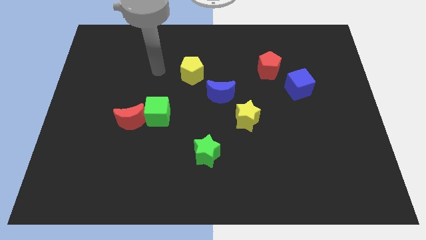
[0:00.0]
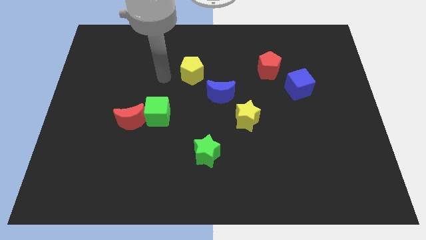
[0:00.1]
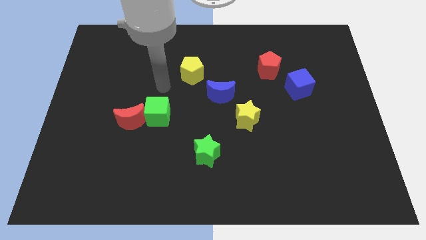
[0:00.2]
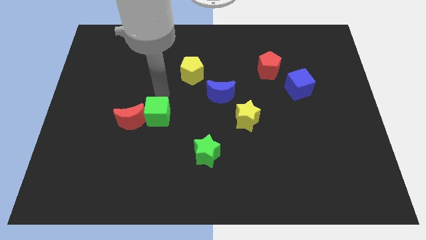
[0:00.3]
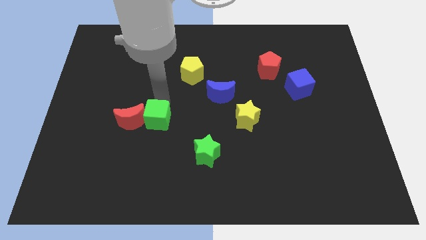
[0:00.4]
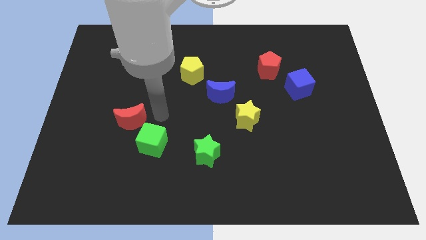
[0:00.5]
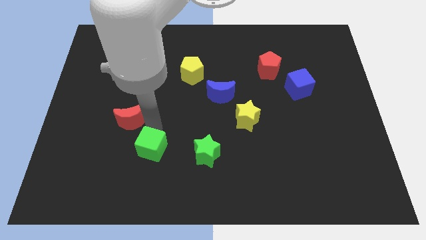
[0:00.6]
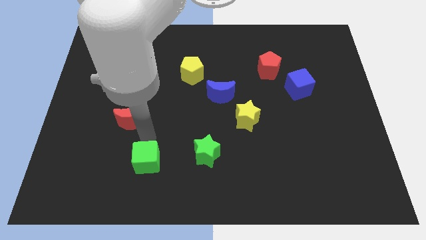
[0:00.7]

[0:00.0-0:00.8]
move the red moon away from the green cube

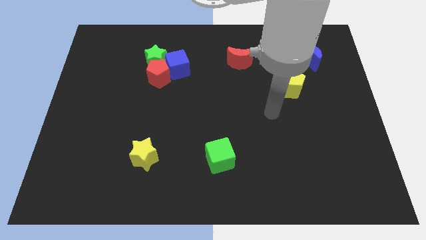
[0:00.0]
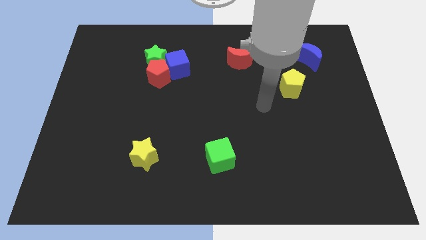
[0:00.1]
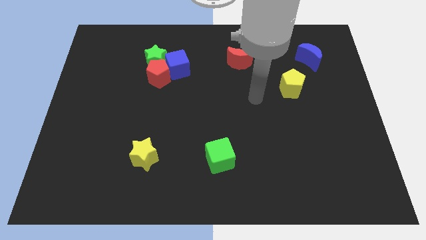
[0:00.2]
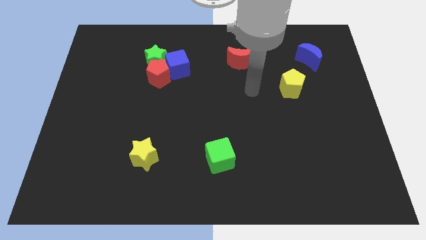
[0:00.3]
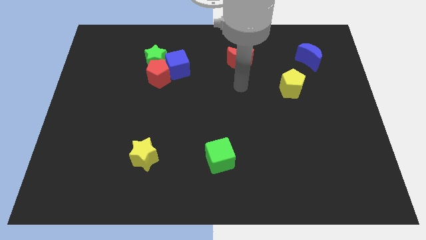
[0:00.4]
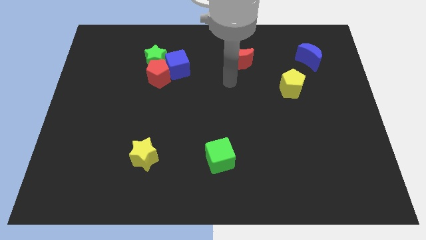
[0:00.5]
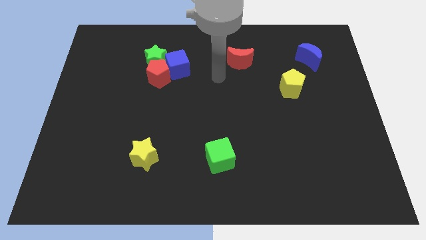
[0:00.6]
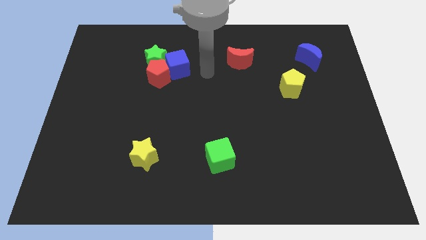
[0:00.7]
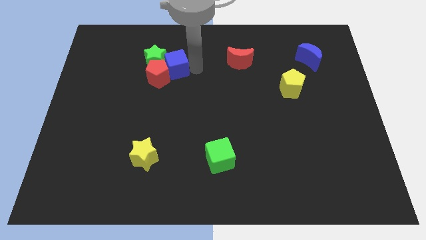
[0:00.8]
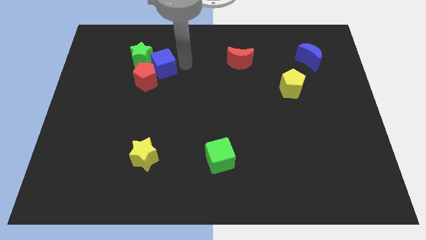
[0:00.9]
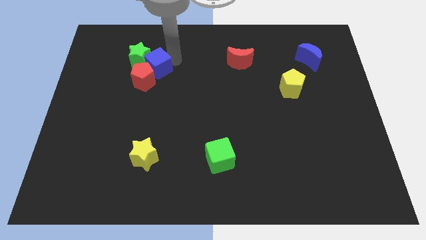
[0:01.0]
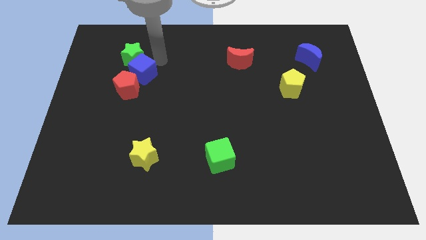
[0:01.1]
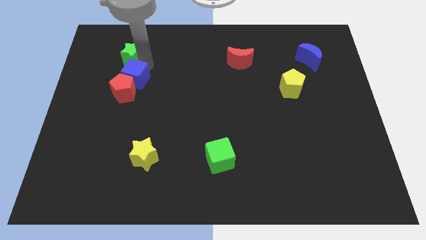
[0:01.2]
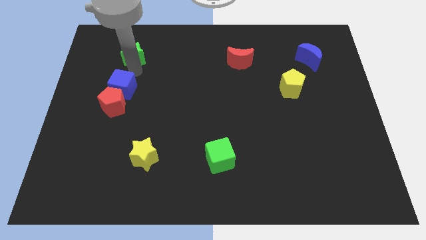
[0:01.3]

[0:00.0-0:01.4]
separate the red pentagon from the green star and blue cube

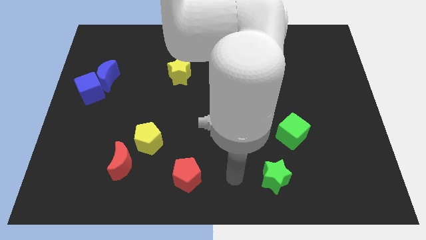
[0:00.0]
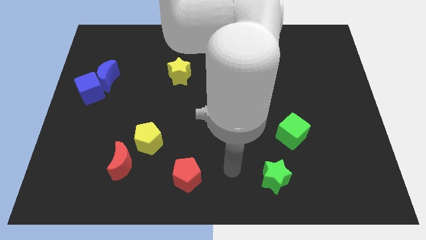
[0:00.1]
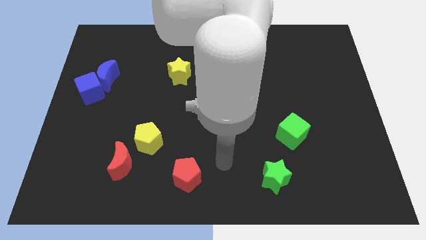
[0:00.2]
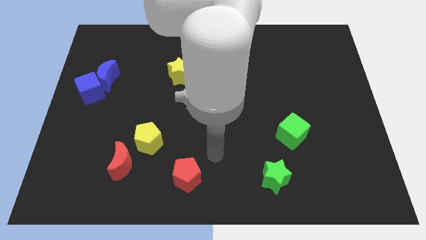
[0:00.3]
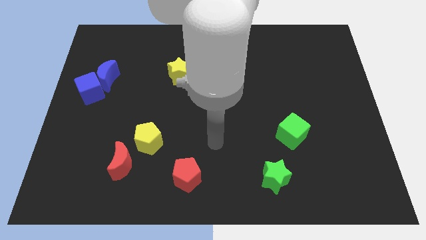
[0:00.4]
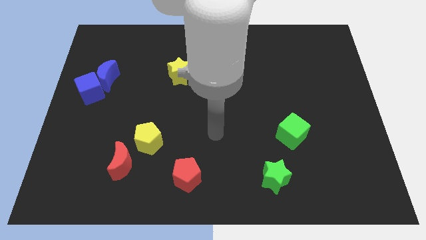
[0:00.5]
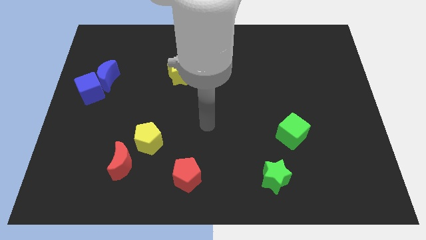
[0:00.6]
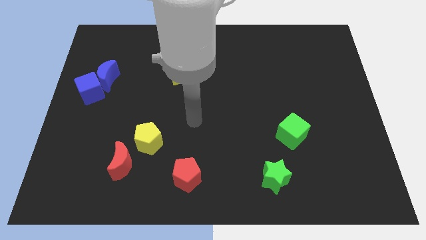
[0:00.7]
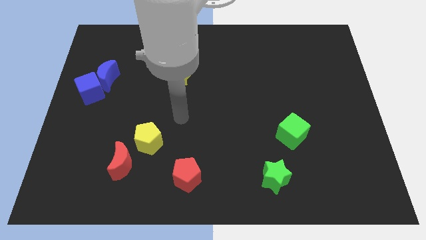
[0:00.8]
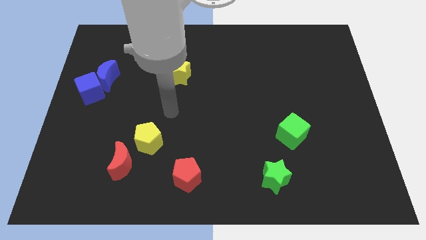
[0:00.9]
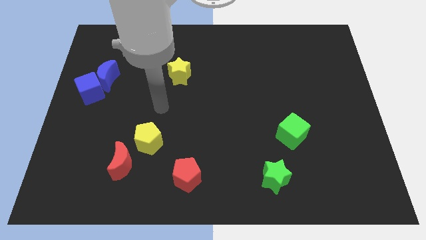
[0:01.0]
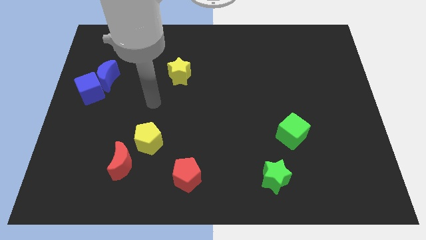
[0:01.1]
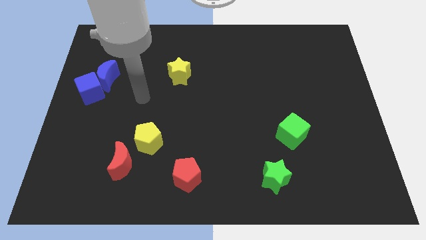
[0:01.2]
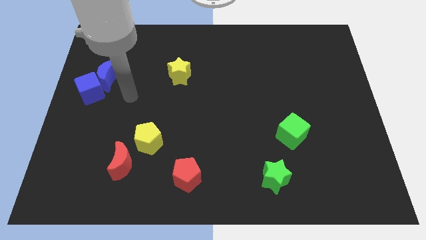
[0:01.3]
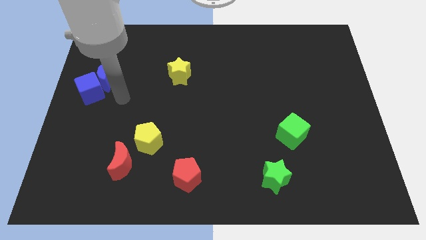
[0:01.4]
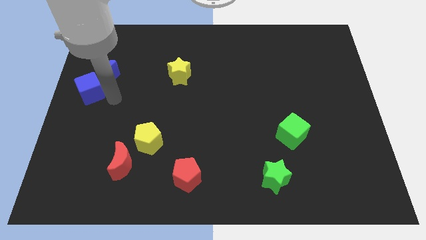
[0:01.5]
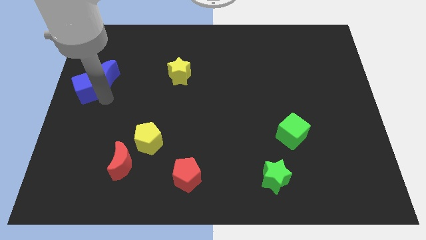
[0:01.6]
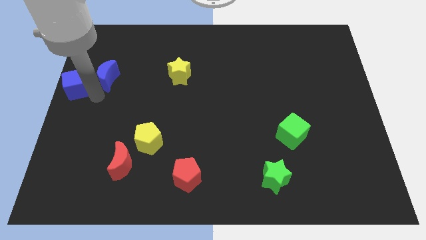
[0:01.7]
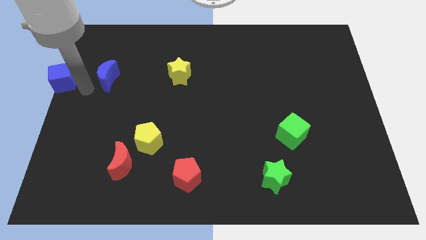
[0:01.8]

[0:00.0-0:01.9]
pull the blue moon apart from the blue cube

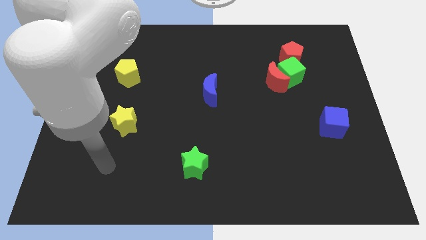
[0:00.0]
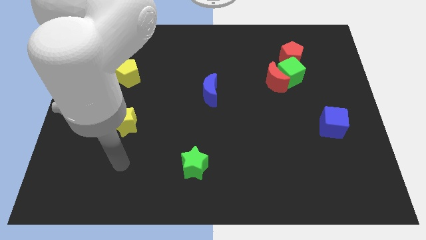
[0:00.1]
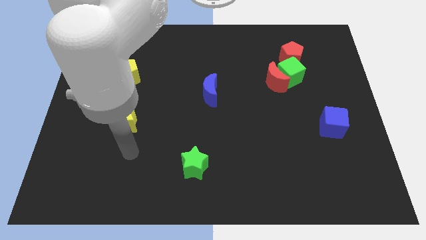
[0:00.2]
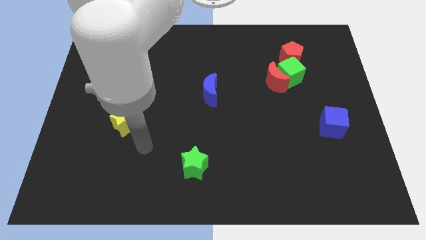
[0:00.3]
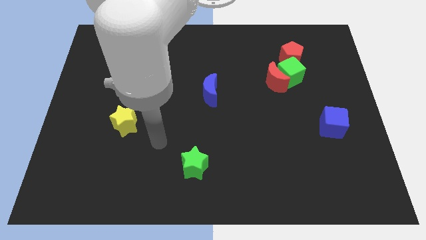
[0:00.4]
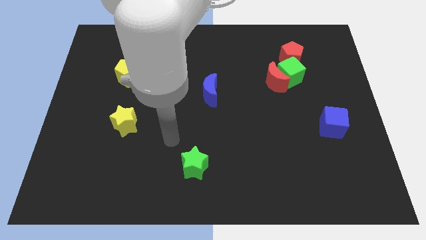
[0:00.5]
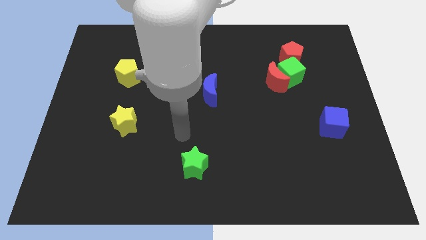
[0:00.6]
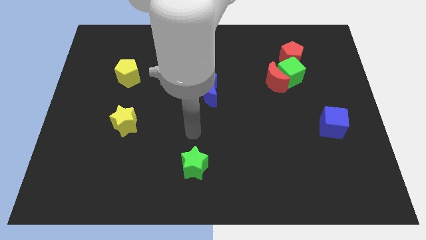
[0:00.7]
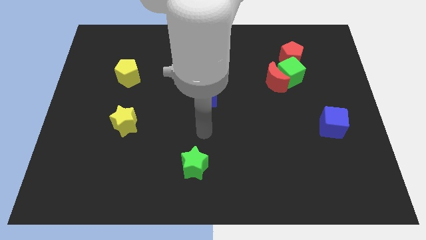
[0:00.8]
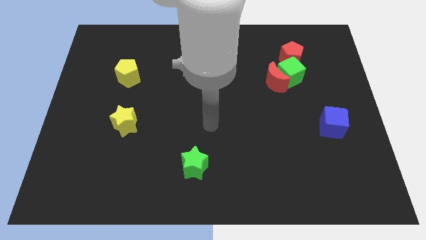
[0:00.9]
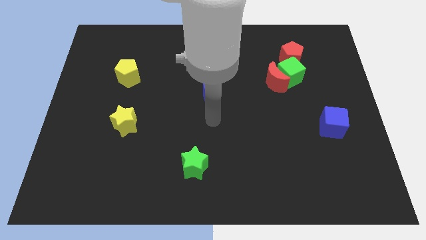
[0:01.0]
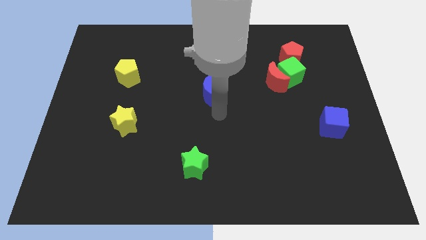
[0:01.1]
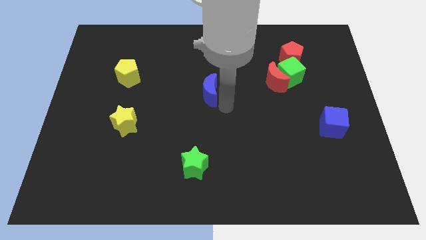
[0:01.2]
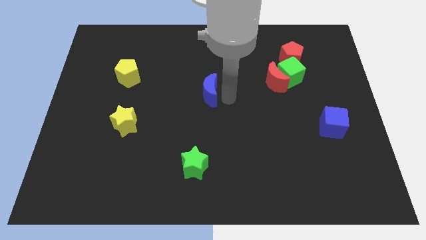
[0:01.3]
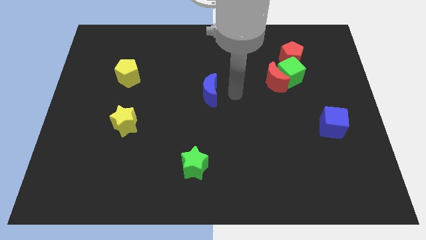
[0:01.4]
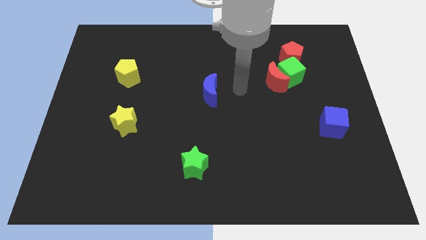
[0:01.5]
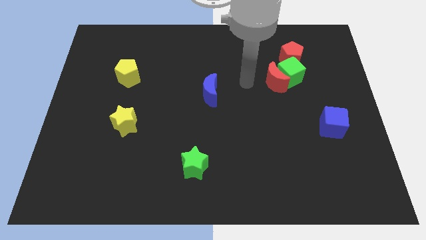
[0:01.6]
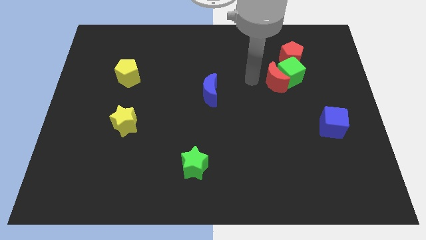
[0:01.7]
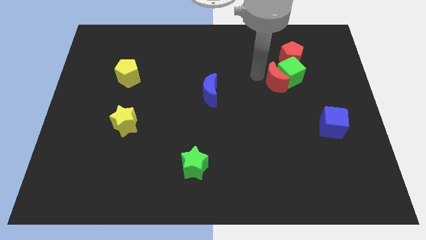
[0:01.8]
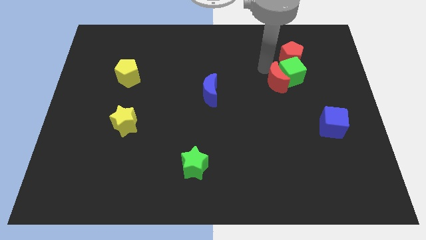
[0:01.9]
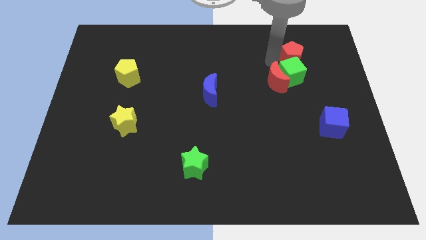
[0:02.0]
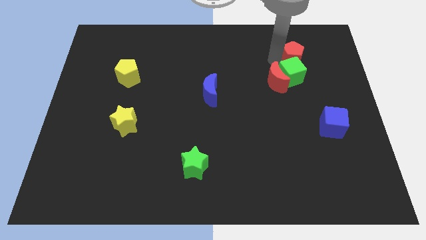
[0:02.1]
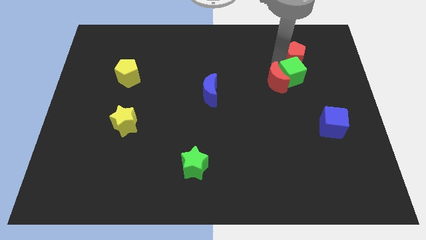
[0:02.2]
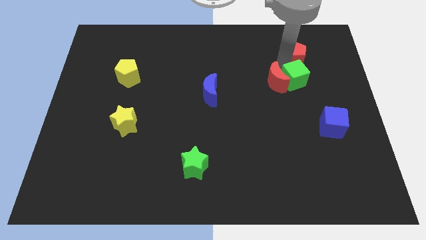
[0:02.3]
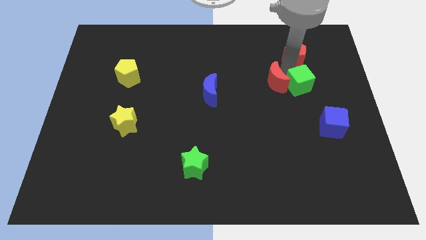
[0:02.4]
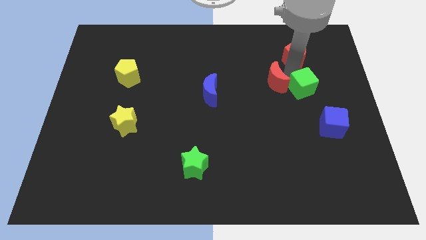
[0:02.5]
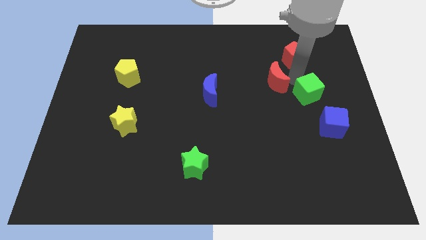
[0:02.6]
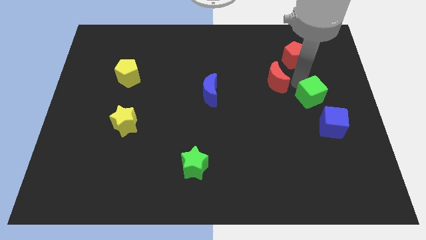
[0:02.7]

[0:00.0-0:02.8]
pull the green cube apart from the red moon and red pentagon

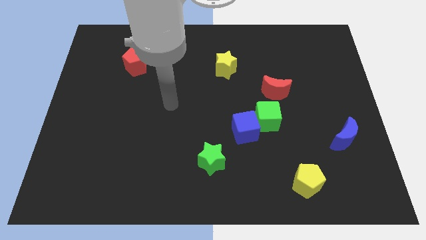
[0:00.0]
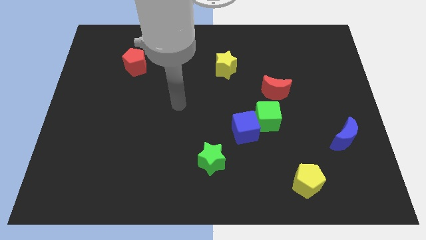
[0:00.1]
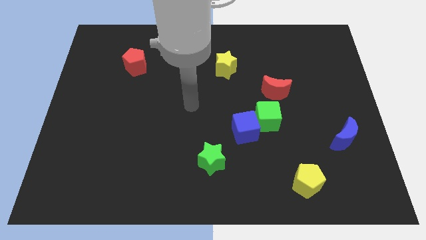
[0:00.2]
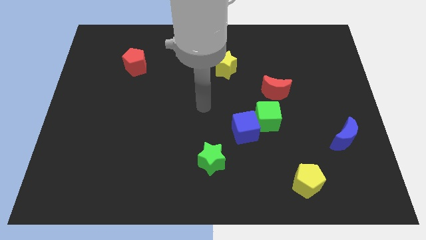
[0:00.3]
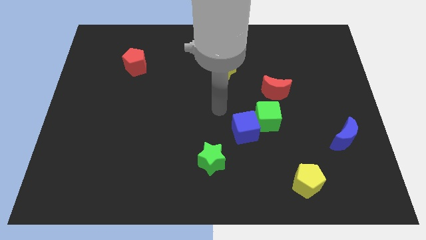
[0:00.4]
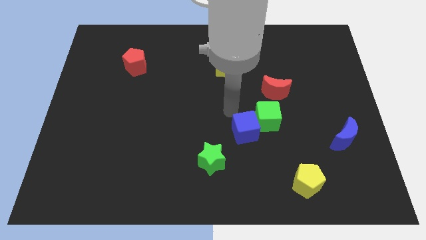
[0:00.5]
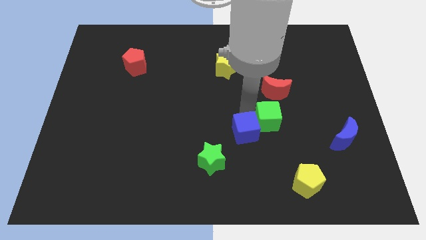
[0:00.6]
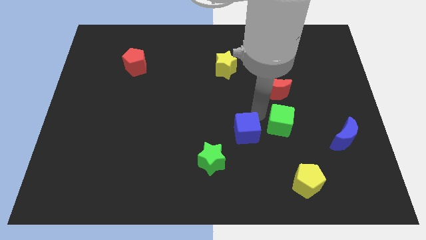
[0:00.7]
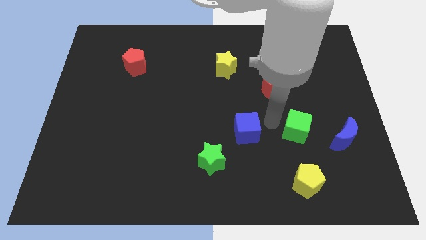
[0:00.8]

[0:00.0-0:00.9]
pull the blue cube apart from the green cube

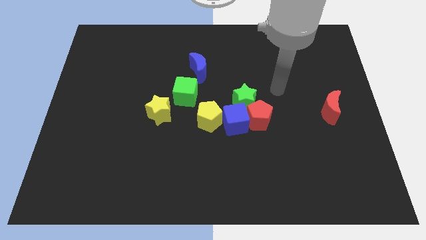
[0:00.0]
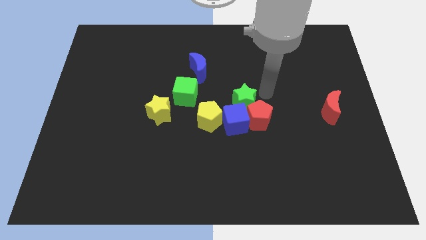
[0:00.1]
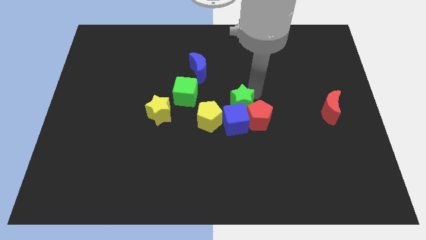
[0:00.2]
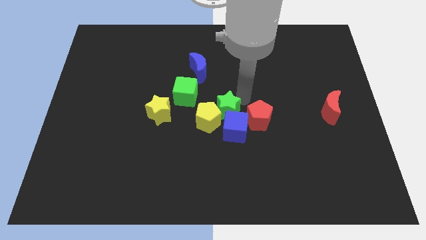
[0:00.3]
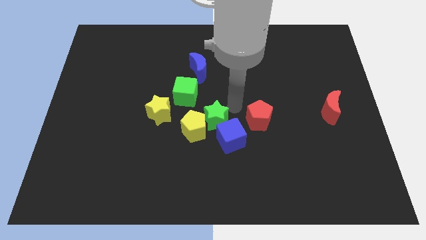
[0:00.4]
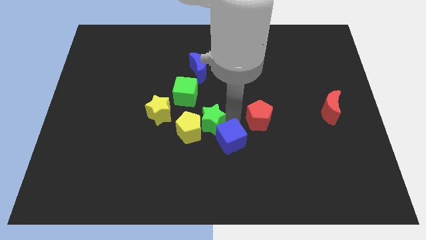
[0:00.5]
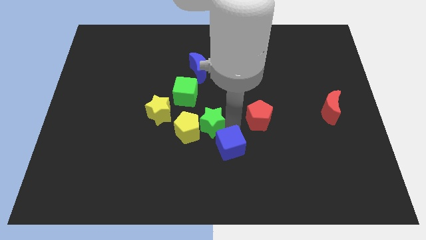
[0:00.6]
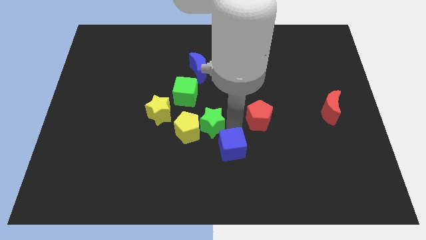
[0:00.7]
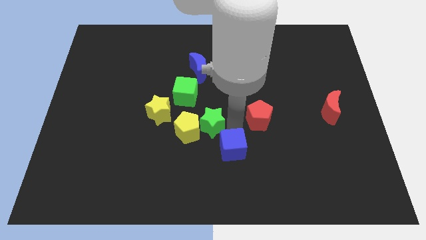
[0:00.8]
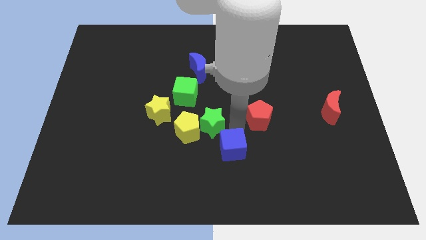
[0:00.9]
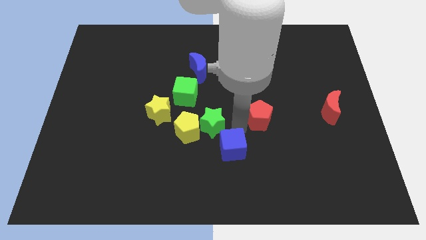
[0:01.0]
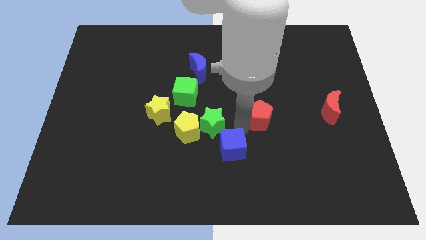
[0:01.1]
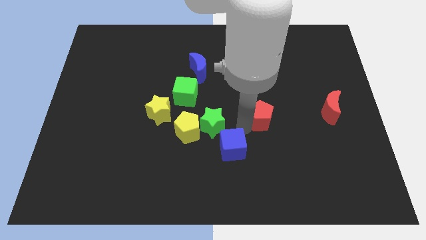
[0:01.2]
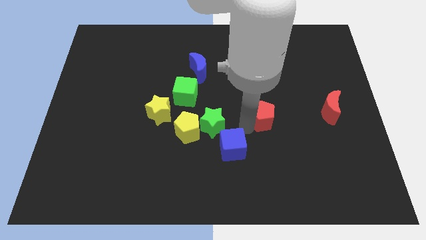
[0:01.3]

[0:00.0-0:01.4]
pull the red pentagon apart from the blue cube and green star
